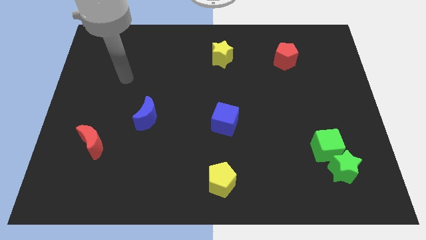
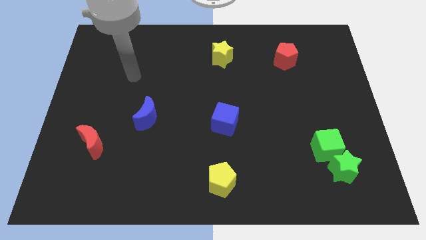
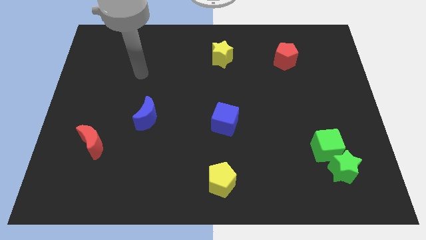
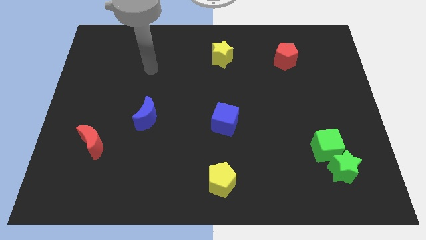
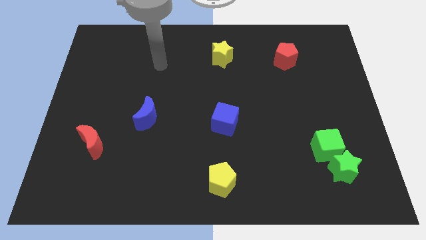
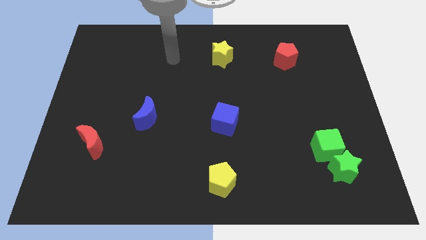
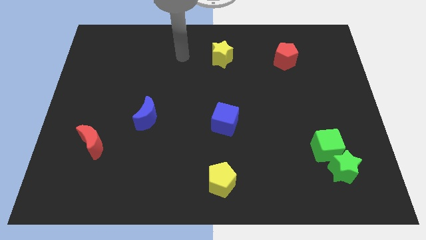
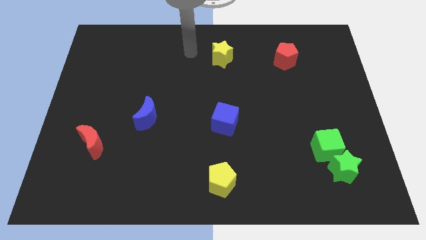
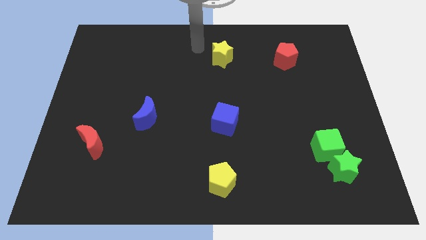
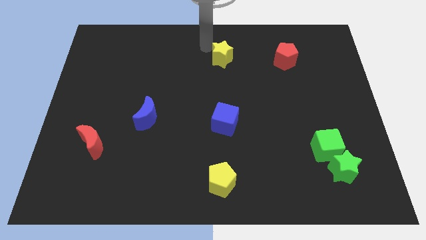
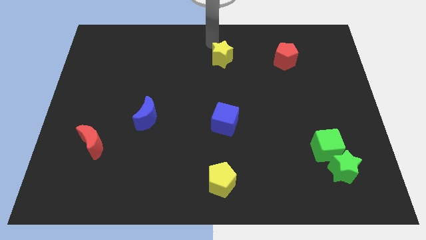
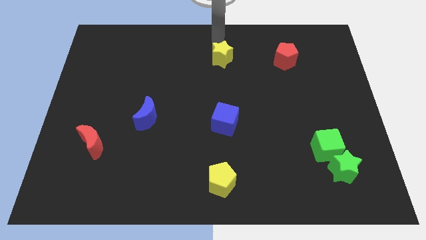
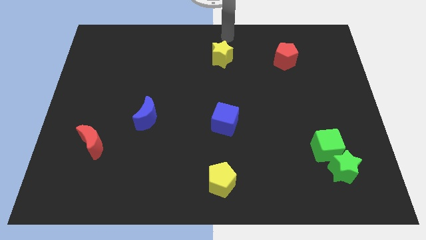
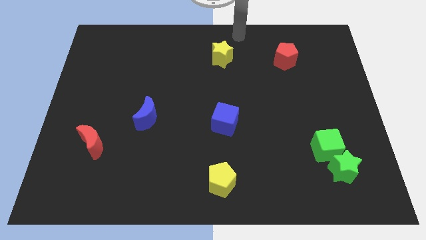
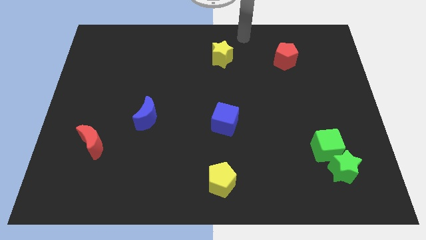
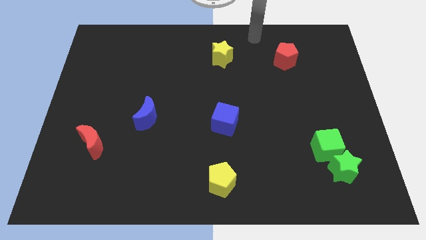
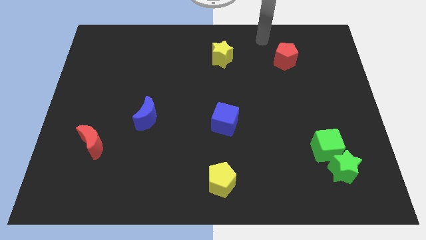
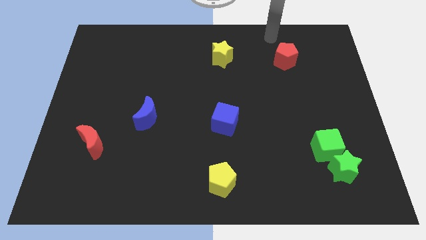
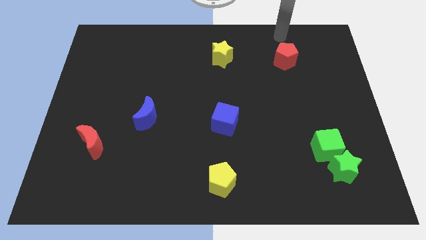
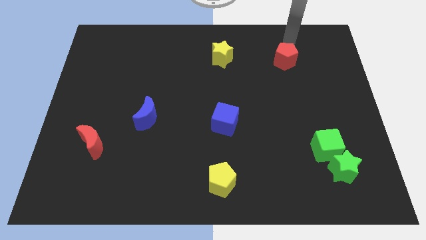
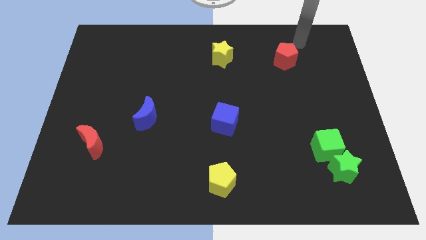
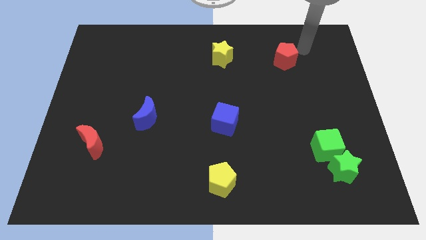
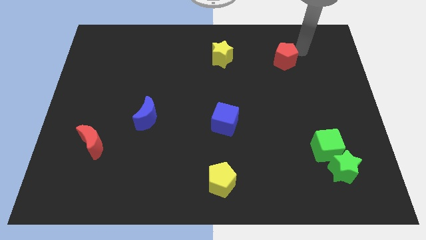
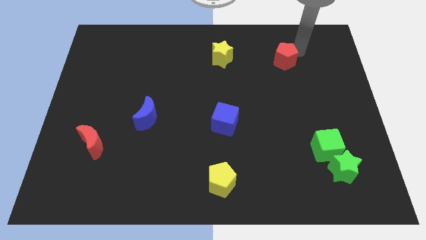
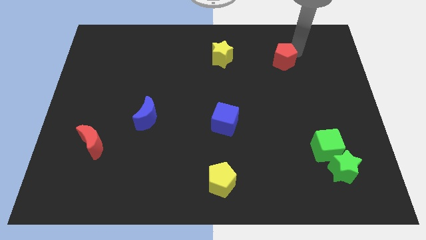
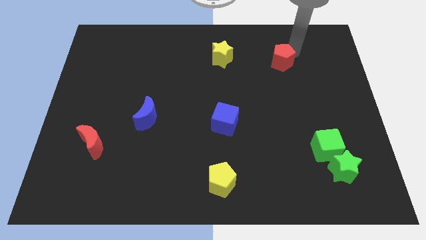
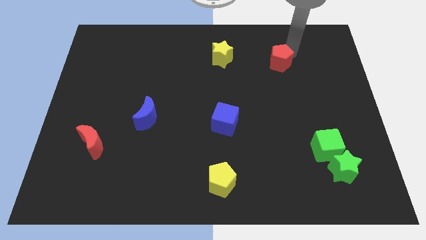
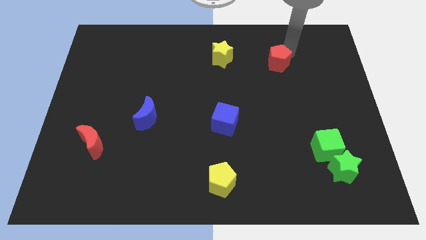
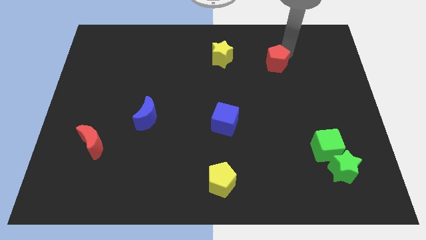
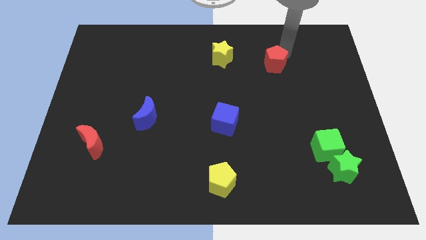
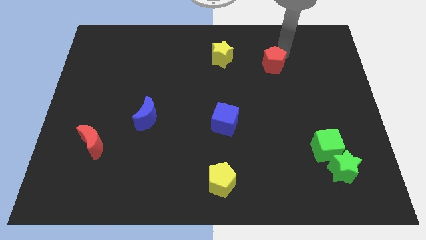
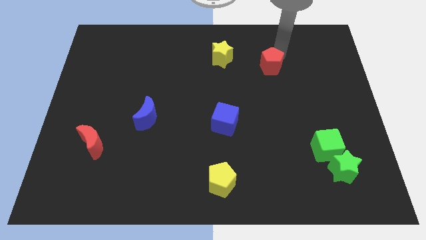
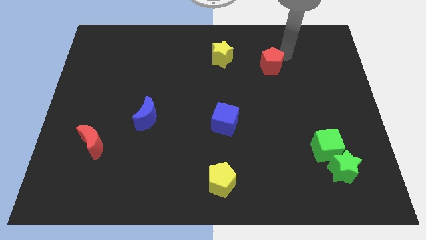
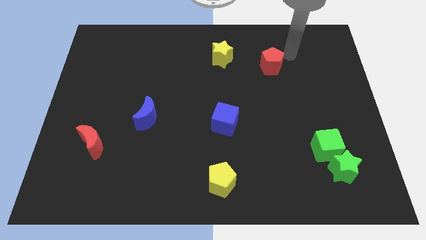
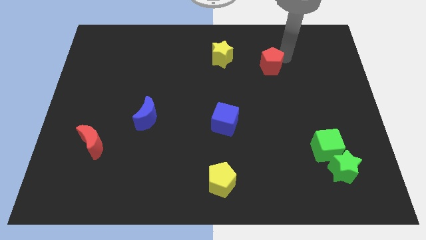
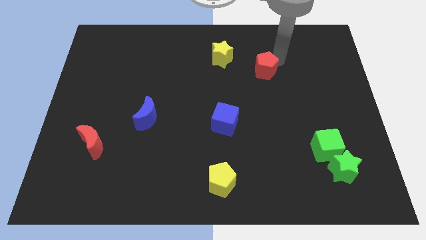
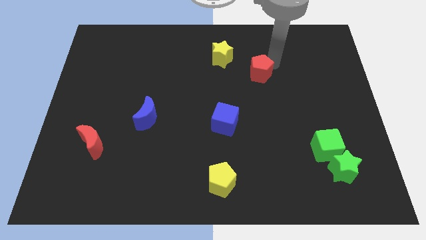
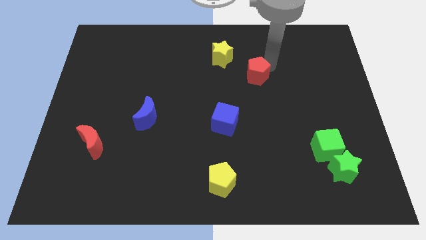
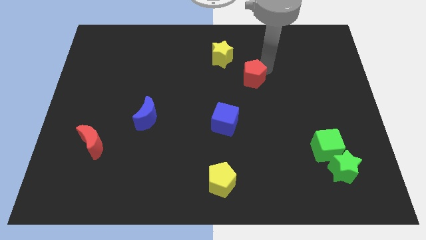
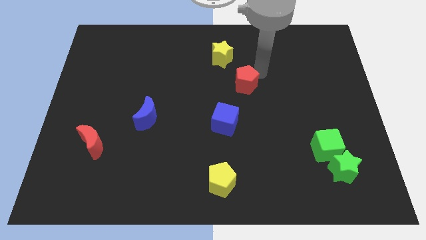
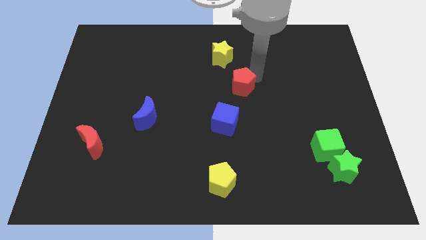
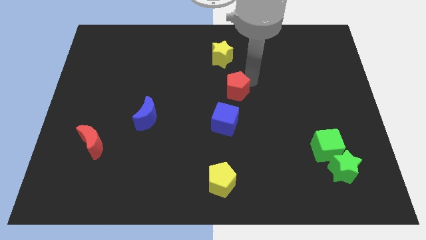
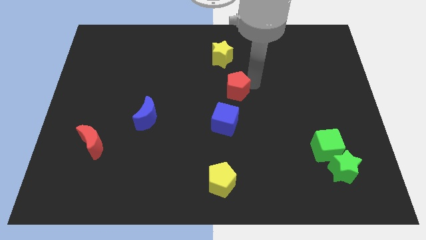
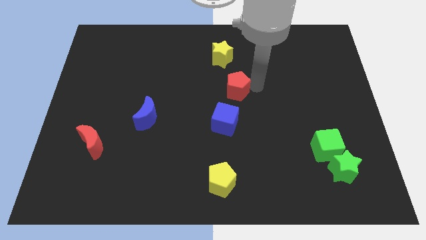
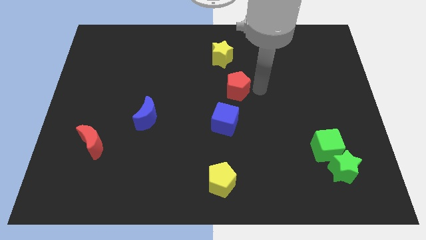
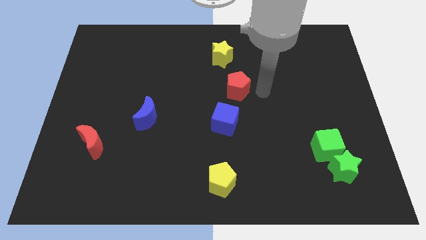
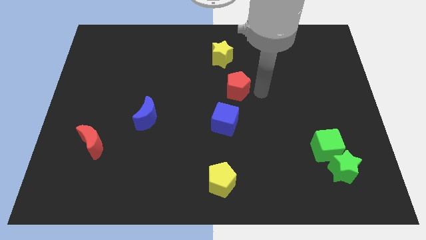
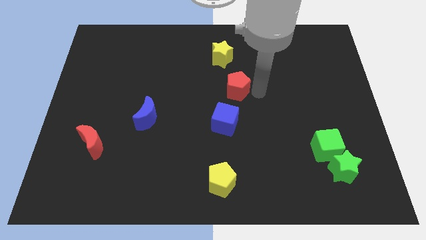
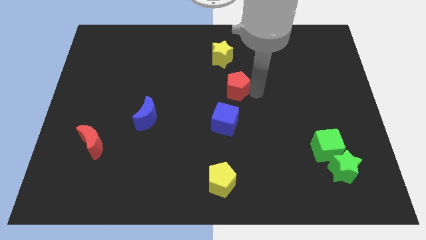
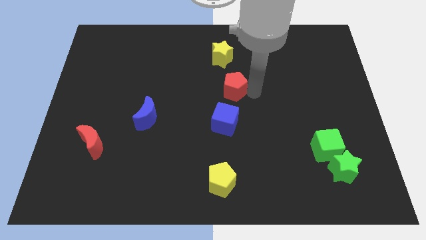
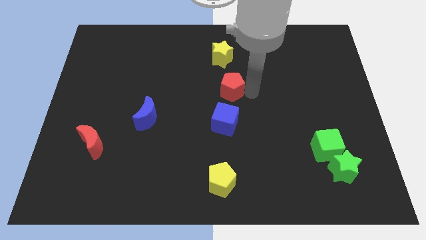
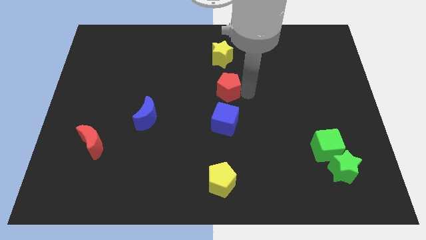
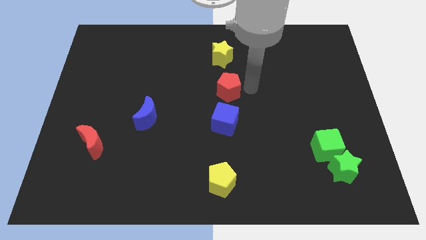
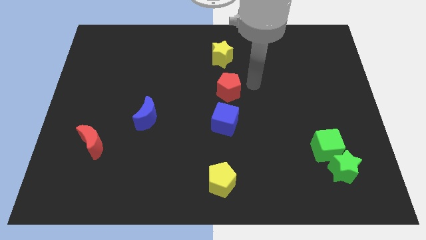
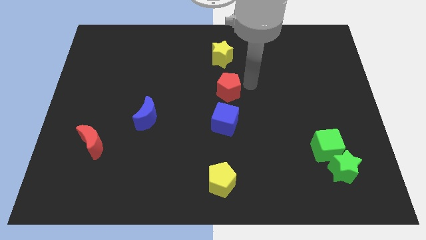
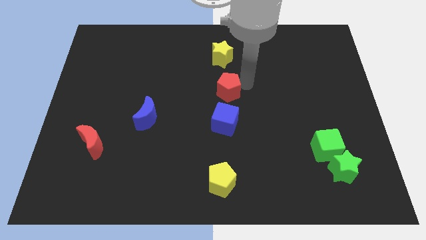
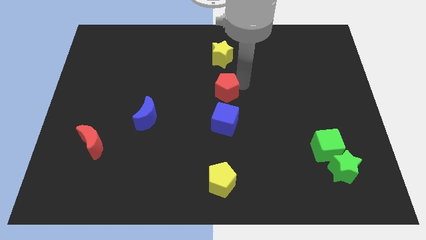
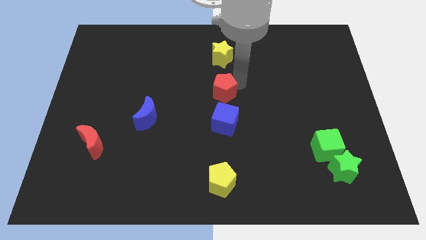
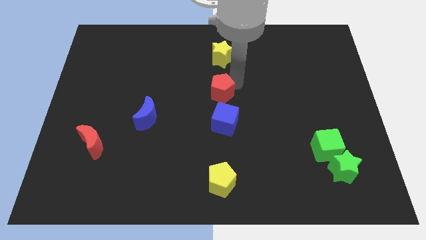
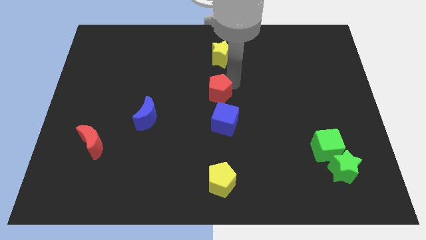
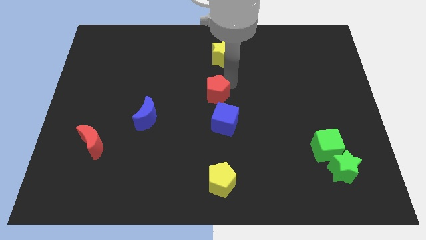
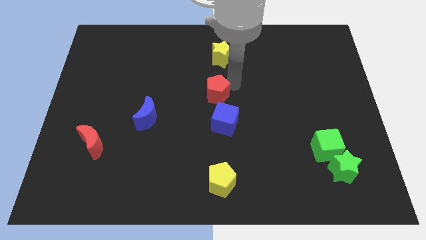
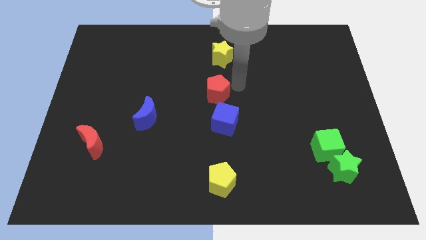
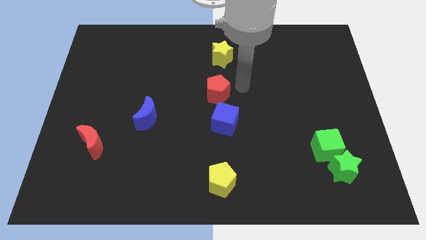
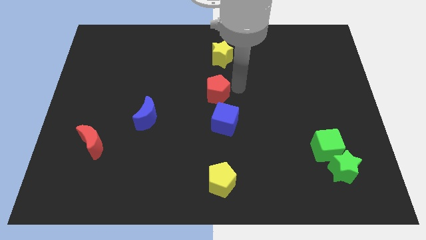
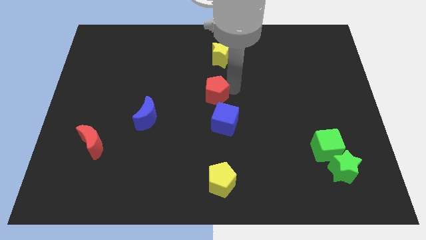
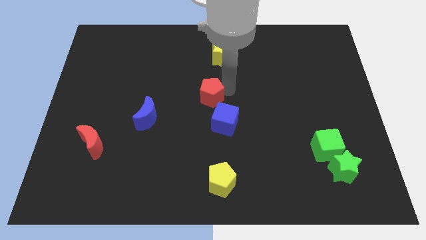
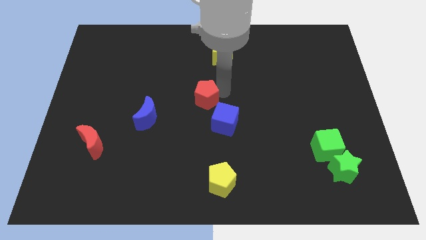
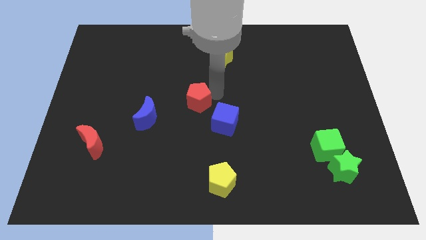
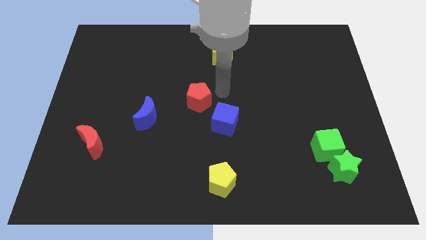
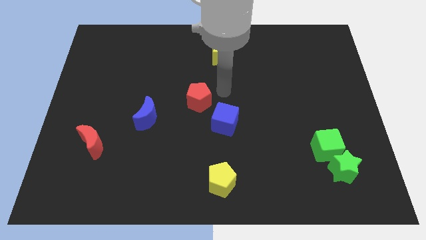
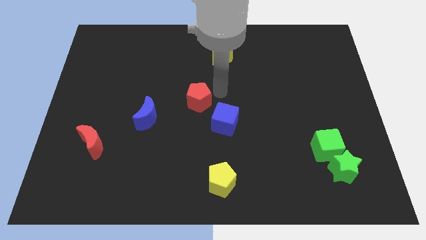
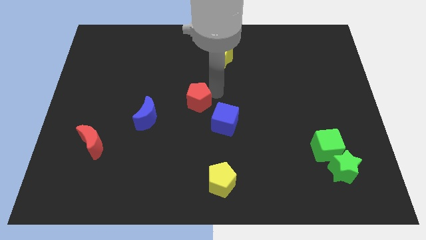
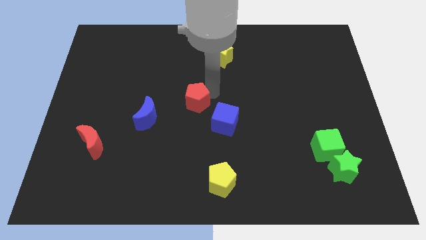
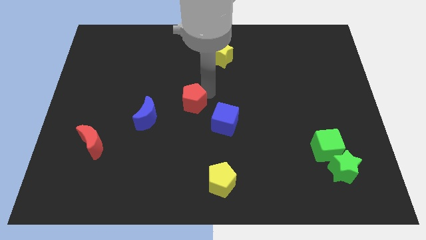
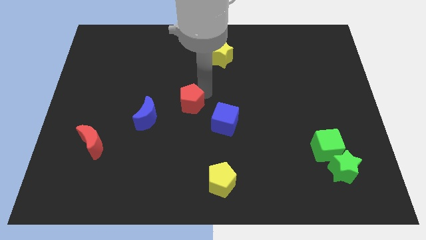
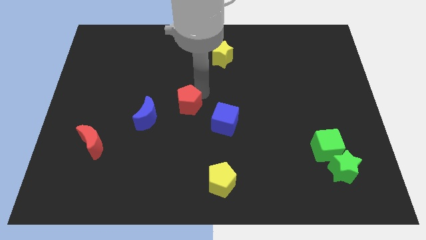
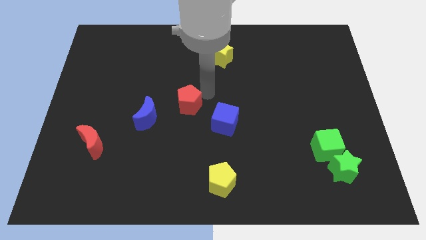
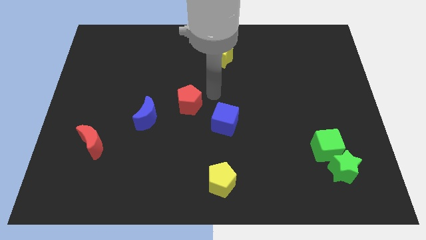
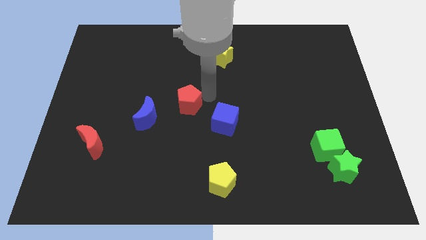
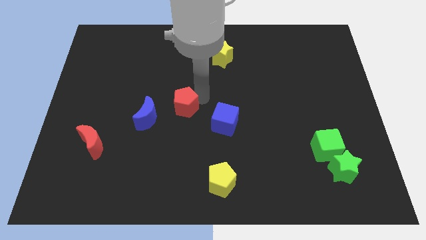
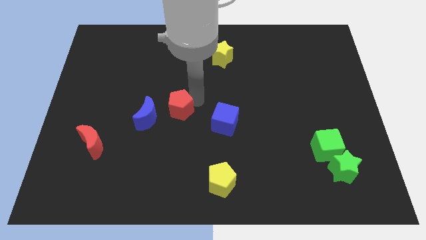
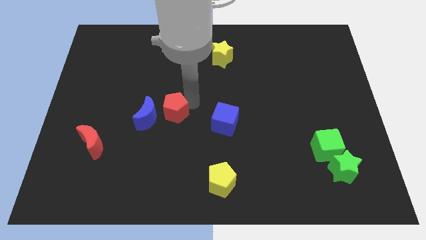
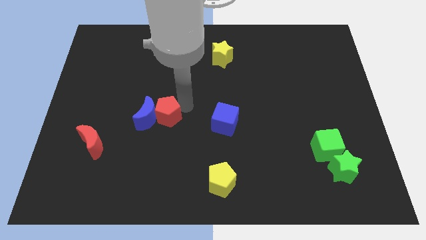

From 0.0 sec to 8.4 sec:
put the red pentagon towards the blue moon
